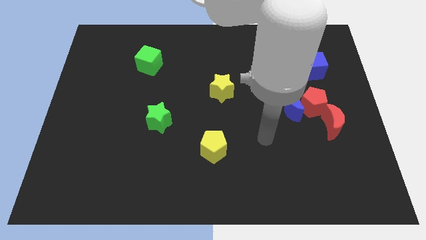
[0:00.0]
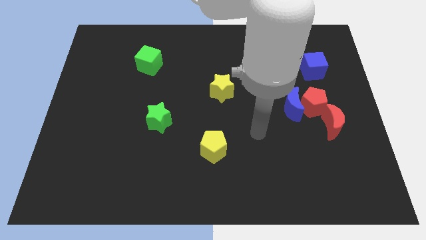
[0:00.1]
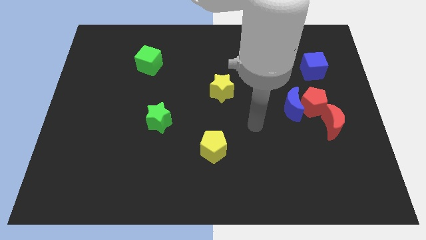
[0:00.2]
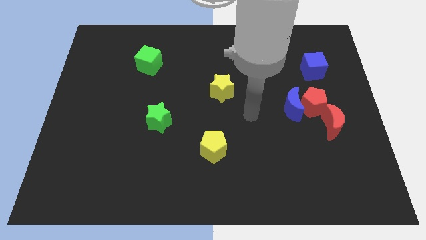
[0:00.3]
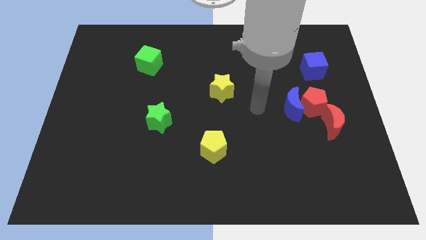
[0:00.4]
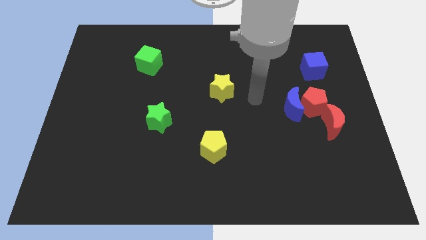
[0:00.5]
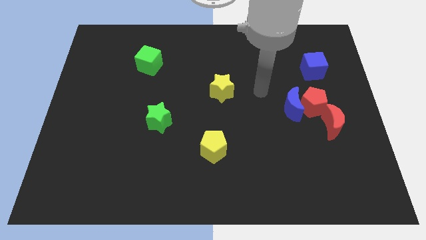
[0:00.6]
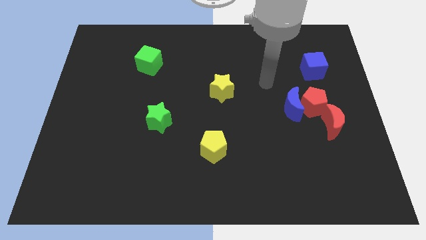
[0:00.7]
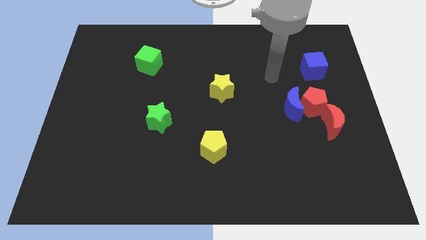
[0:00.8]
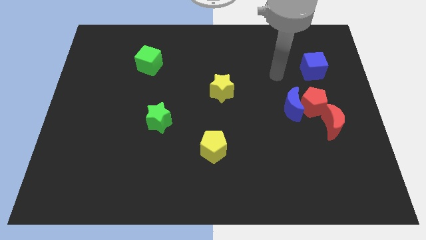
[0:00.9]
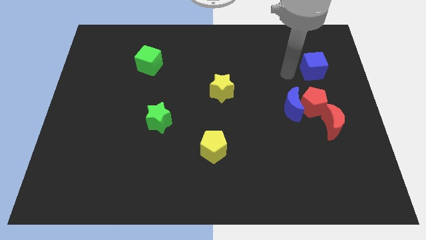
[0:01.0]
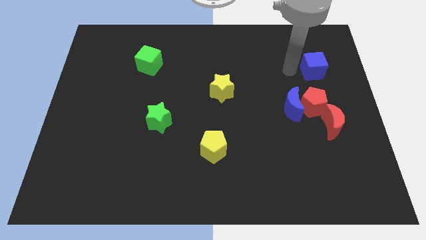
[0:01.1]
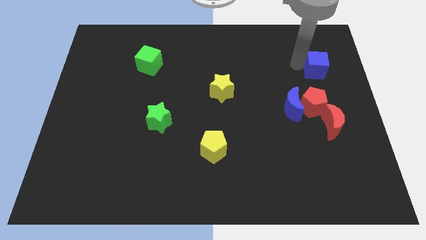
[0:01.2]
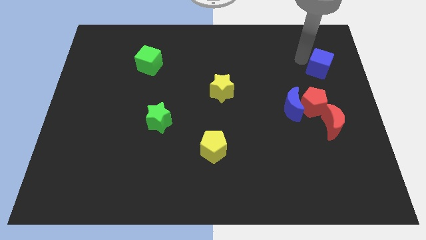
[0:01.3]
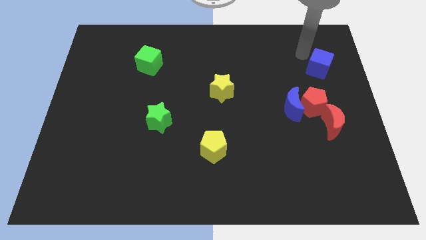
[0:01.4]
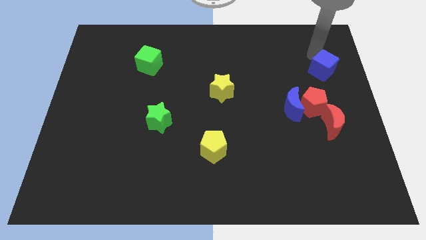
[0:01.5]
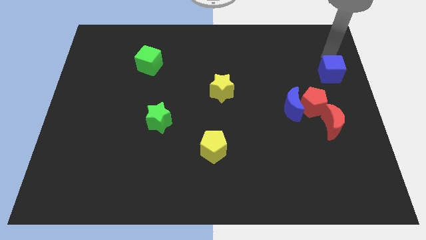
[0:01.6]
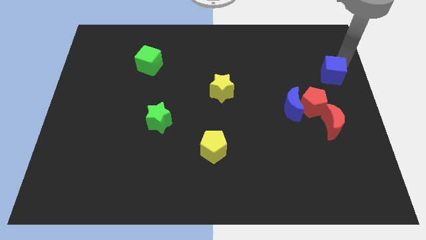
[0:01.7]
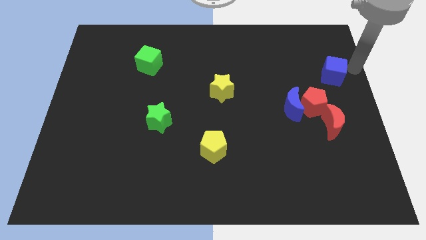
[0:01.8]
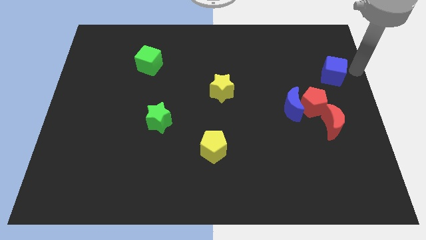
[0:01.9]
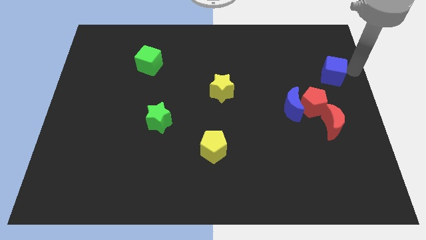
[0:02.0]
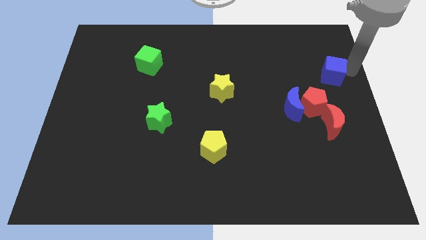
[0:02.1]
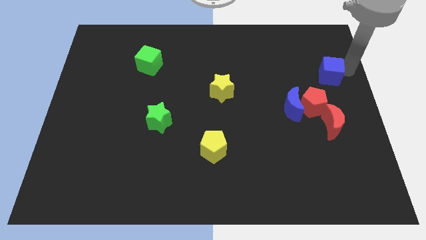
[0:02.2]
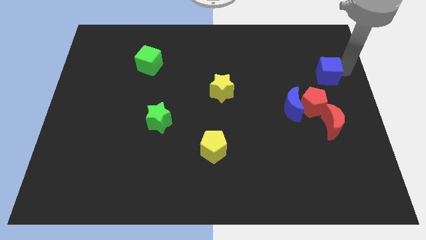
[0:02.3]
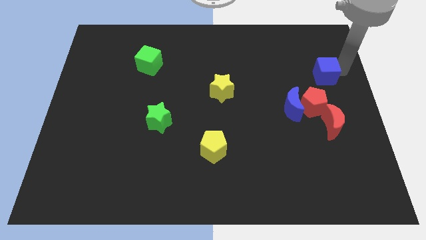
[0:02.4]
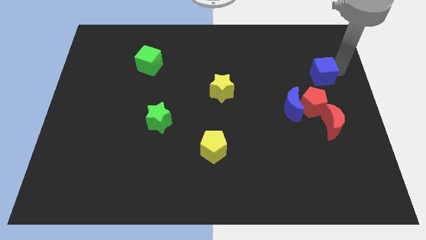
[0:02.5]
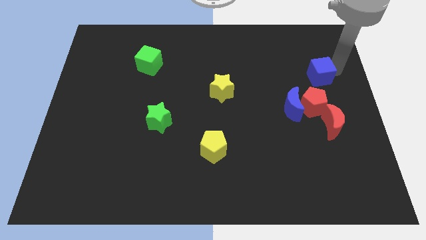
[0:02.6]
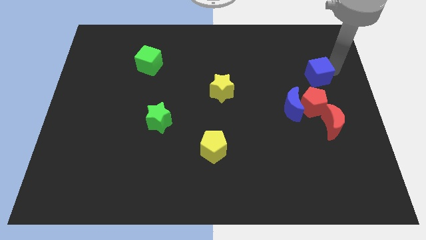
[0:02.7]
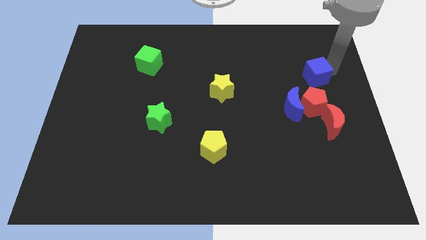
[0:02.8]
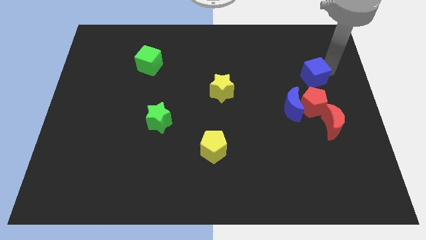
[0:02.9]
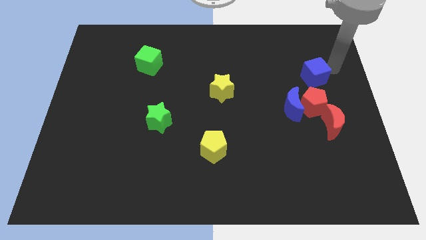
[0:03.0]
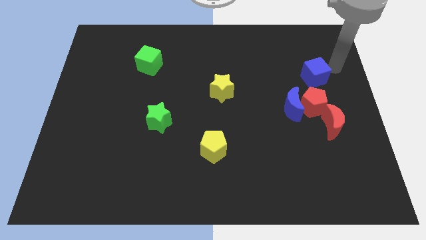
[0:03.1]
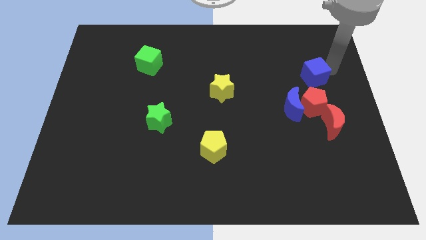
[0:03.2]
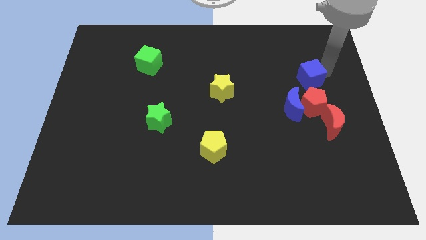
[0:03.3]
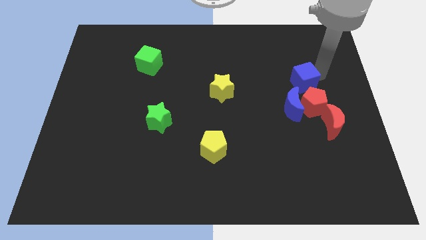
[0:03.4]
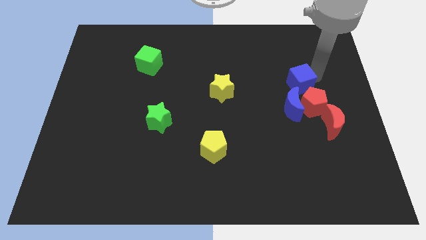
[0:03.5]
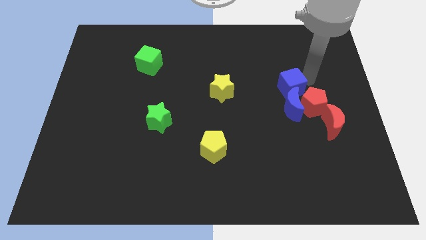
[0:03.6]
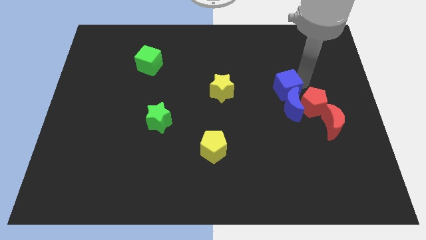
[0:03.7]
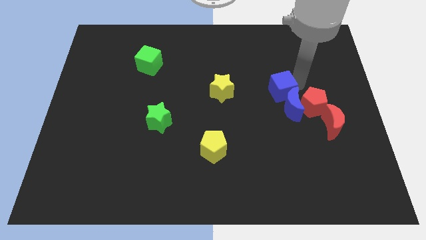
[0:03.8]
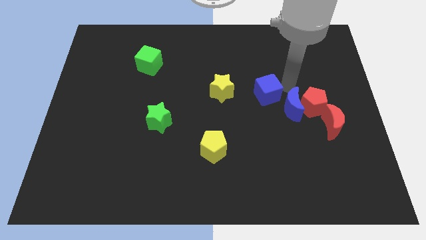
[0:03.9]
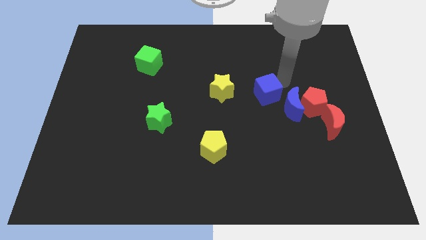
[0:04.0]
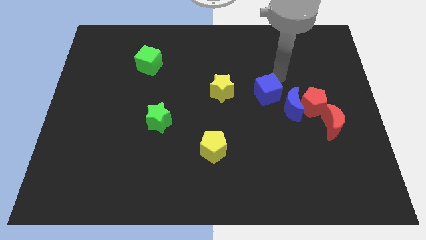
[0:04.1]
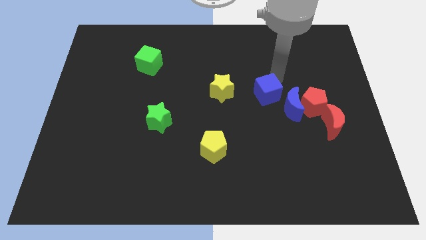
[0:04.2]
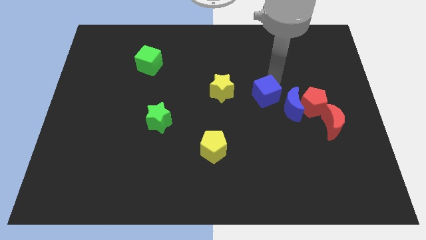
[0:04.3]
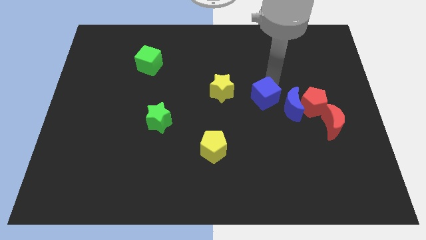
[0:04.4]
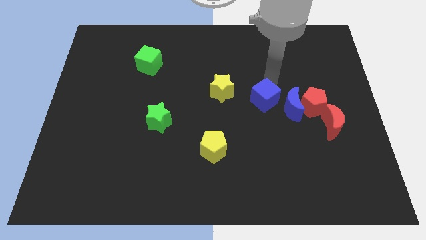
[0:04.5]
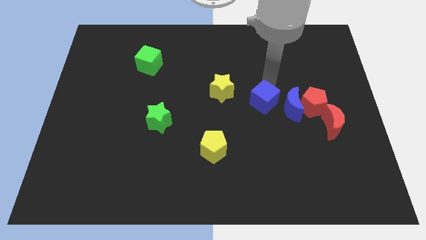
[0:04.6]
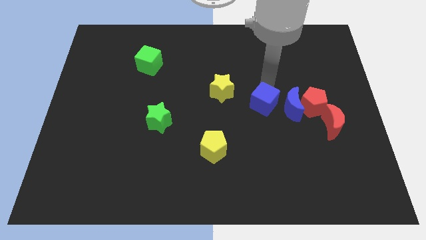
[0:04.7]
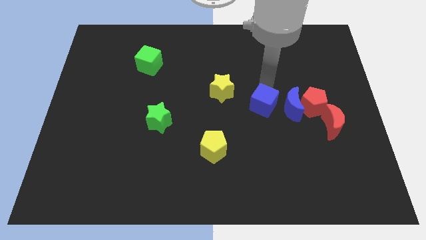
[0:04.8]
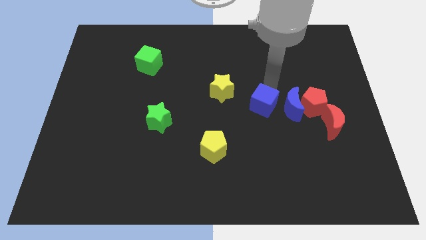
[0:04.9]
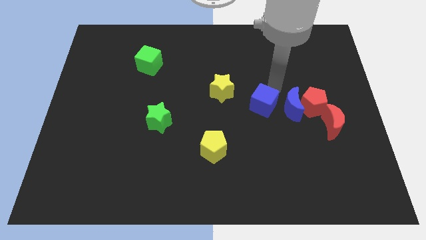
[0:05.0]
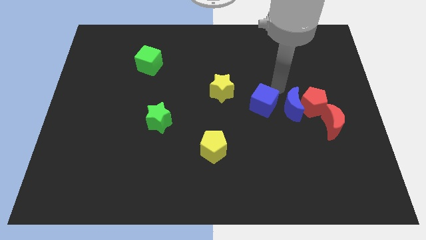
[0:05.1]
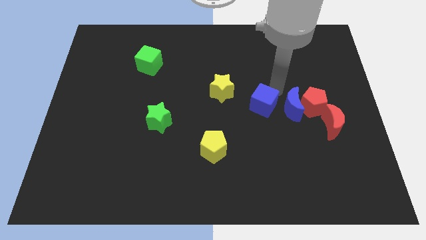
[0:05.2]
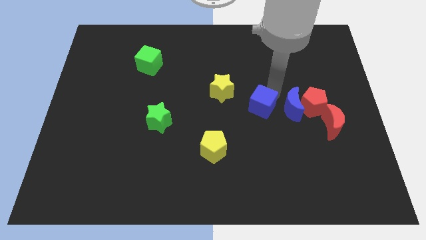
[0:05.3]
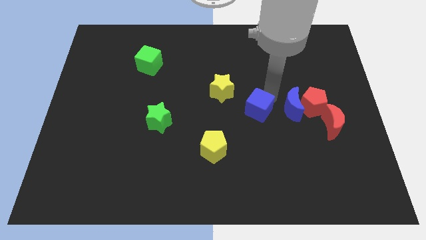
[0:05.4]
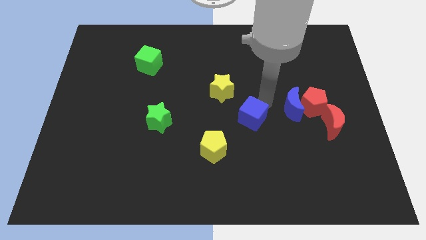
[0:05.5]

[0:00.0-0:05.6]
push the blue cube to the top right side of the yellow pentagon

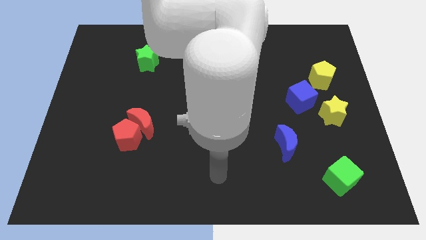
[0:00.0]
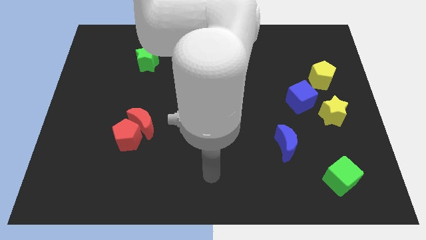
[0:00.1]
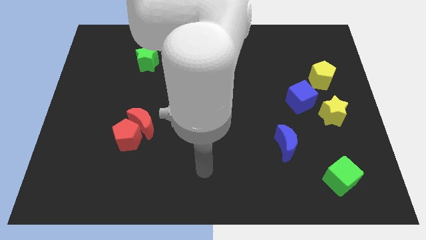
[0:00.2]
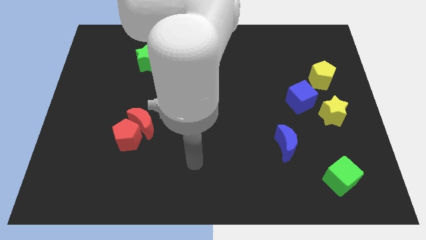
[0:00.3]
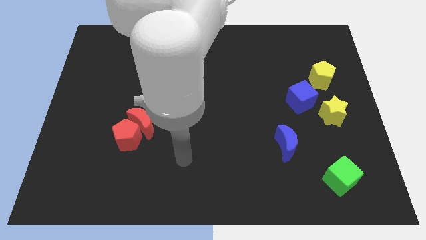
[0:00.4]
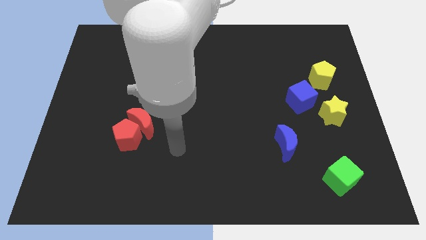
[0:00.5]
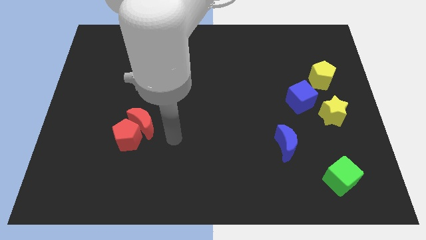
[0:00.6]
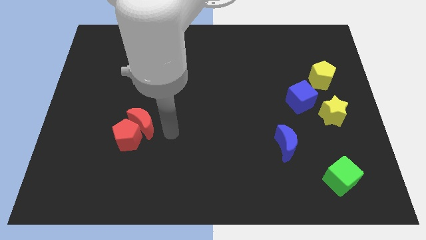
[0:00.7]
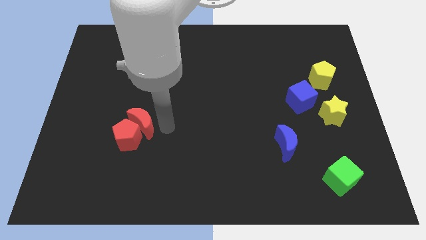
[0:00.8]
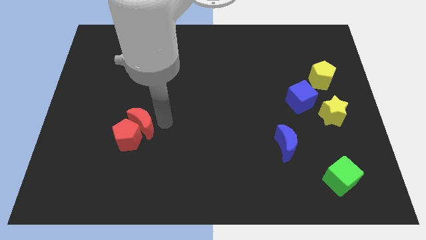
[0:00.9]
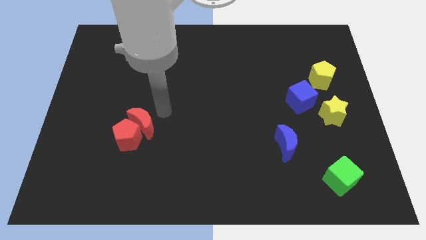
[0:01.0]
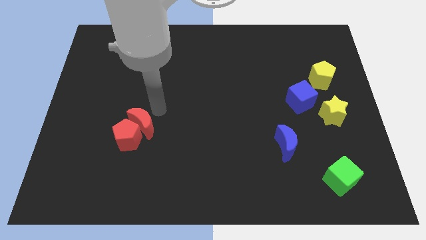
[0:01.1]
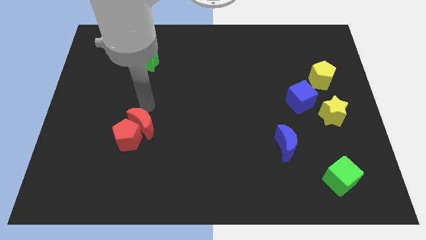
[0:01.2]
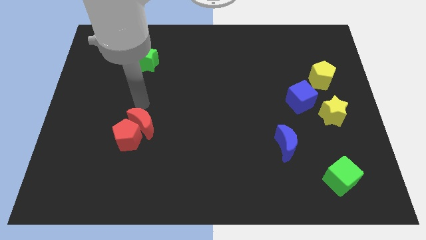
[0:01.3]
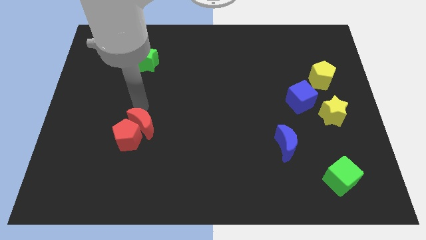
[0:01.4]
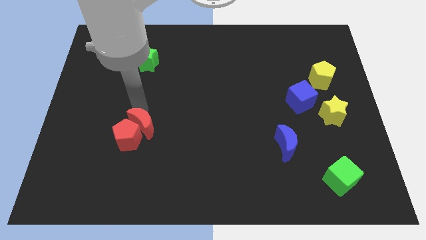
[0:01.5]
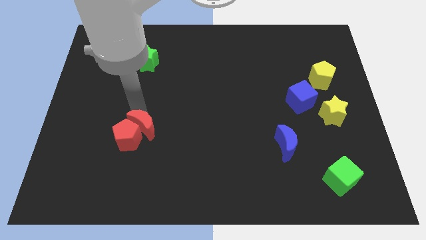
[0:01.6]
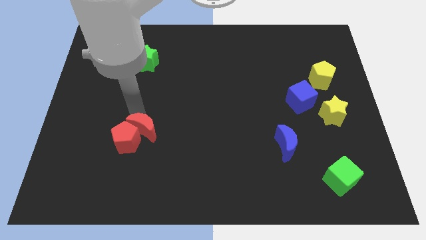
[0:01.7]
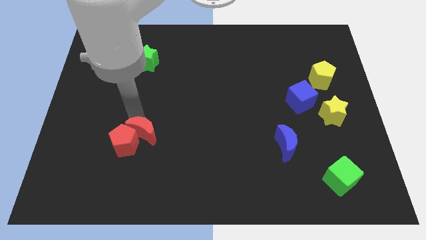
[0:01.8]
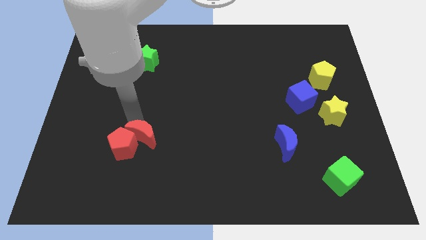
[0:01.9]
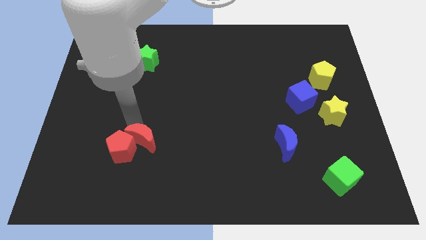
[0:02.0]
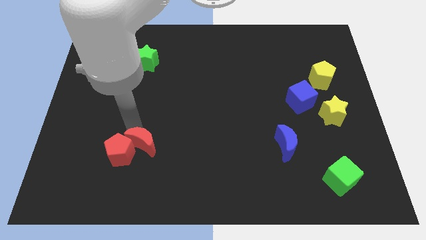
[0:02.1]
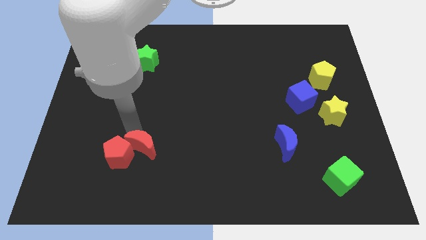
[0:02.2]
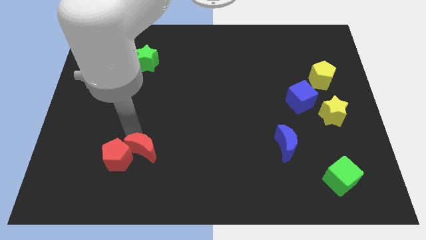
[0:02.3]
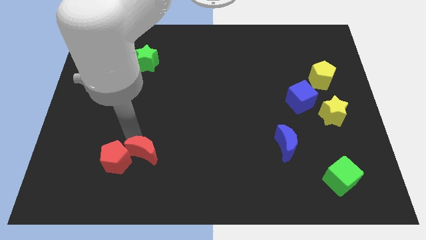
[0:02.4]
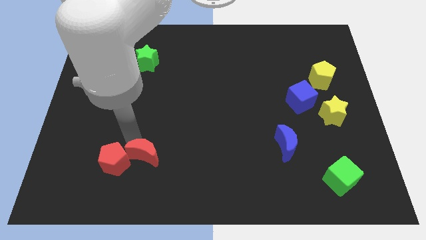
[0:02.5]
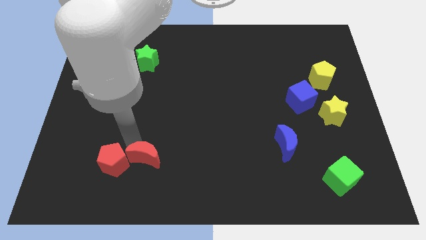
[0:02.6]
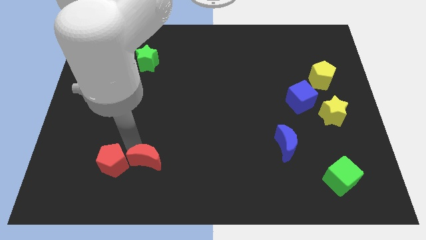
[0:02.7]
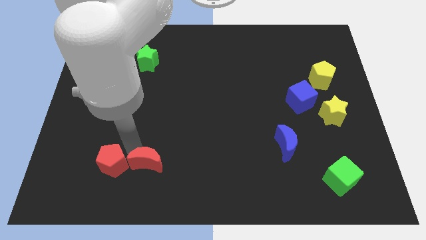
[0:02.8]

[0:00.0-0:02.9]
put the red moon to the bottom right side of the red pentagon
